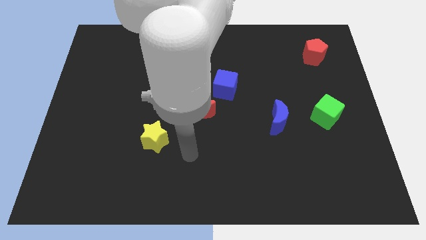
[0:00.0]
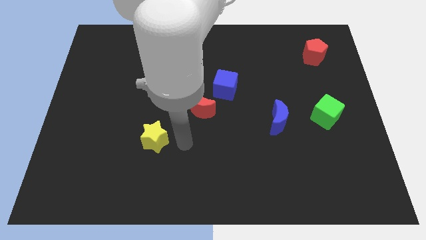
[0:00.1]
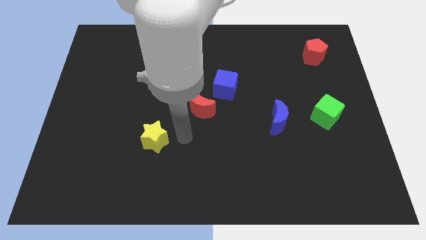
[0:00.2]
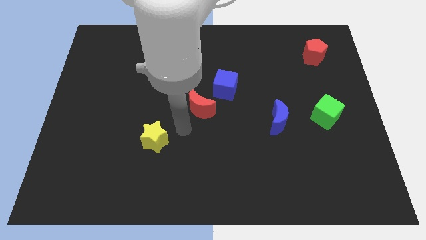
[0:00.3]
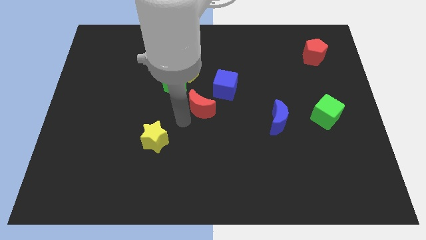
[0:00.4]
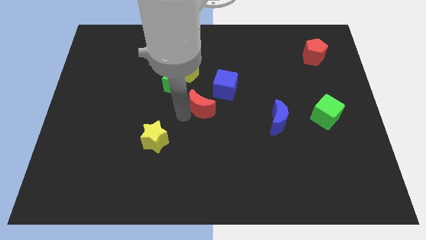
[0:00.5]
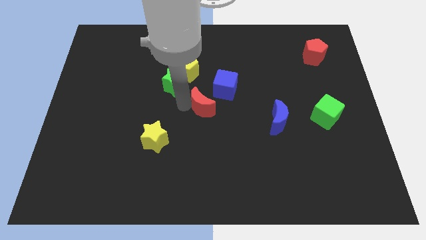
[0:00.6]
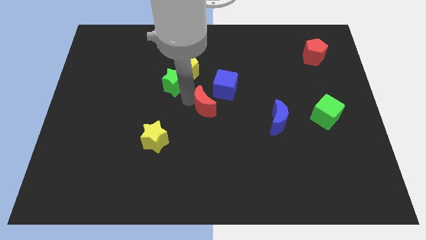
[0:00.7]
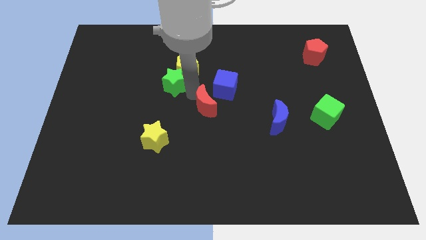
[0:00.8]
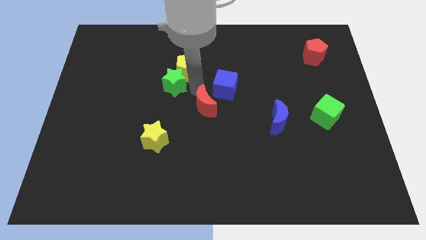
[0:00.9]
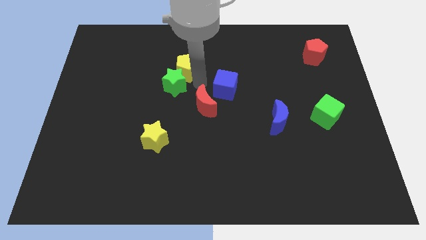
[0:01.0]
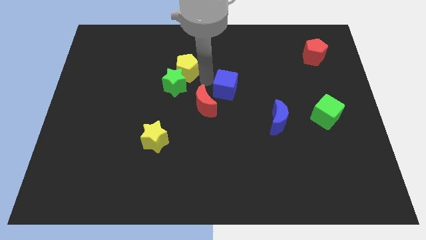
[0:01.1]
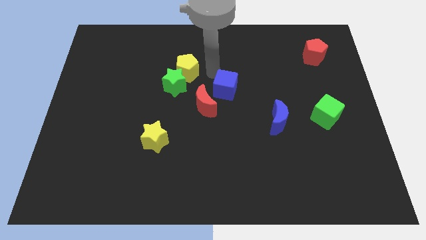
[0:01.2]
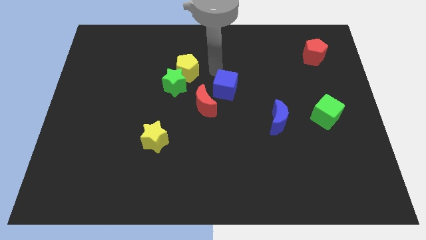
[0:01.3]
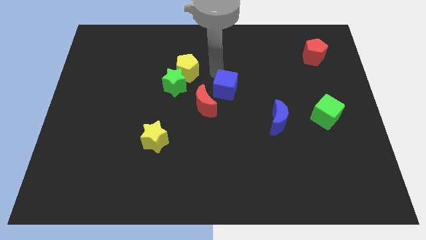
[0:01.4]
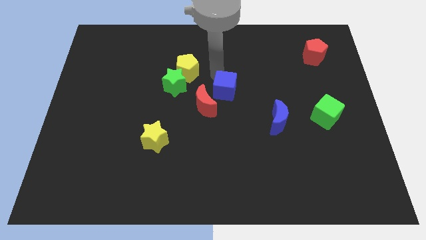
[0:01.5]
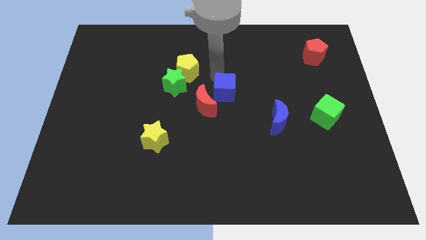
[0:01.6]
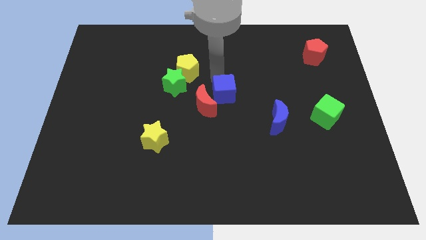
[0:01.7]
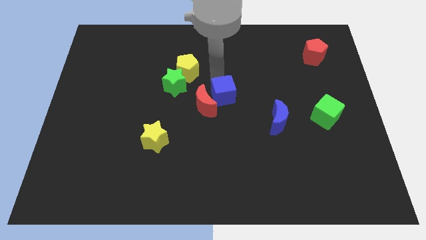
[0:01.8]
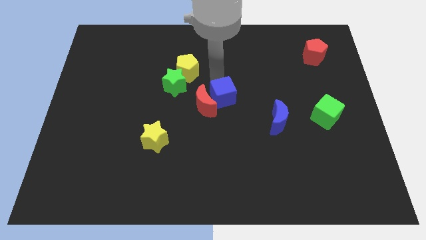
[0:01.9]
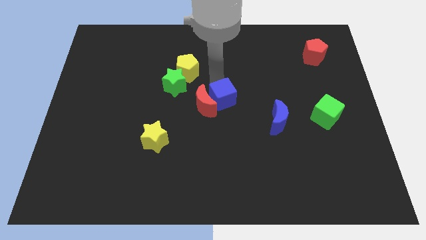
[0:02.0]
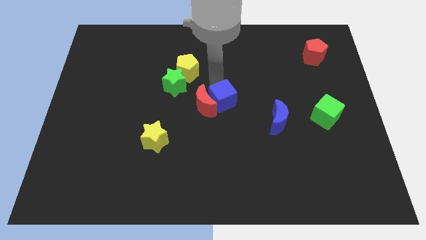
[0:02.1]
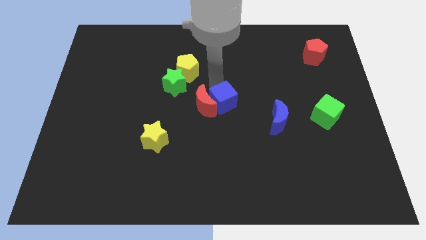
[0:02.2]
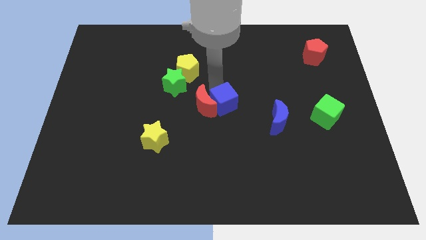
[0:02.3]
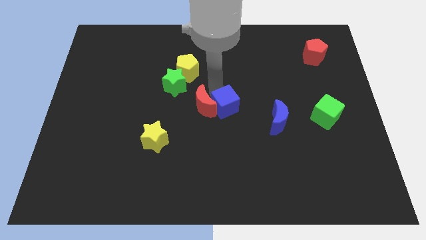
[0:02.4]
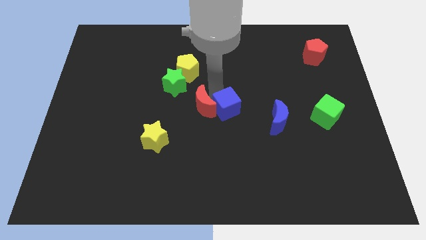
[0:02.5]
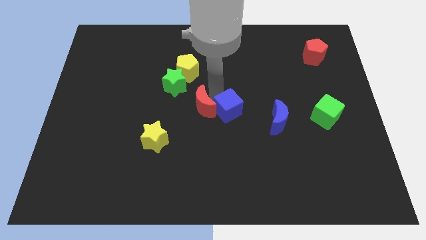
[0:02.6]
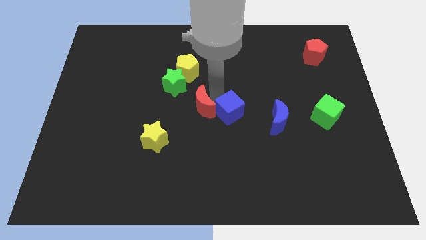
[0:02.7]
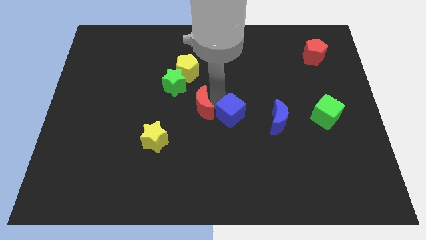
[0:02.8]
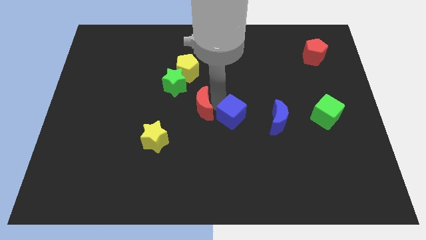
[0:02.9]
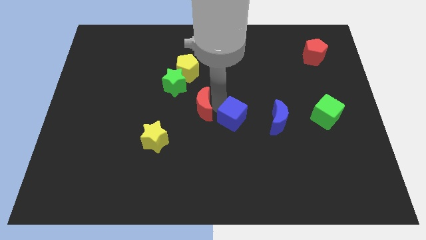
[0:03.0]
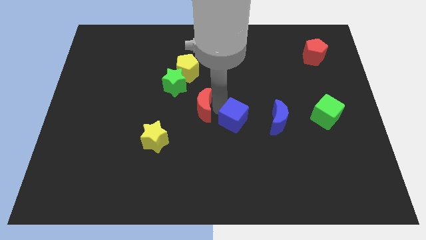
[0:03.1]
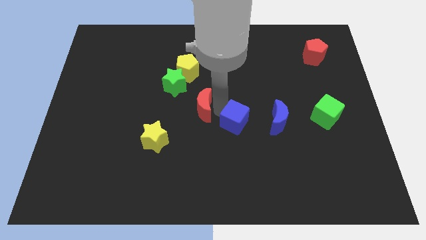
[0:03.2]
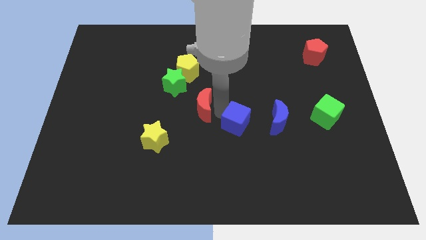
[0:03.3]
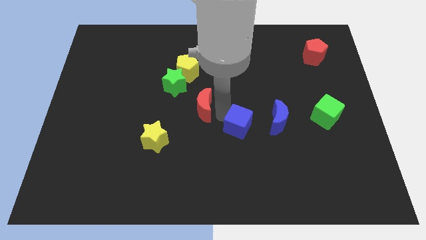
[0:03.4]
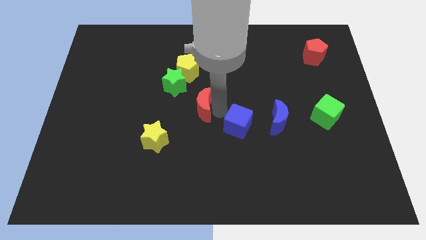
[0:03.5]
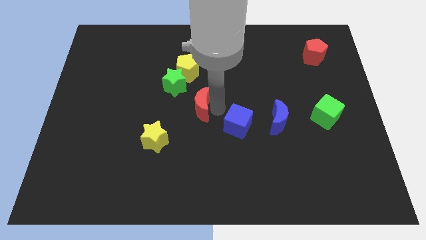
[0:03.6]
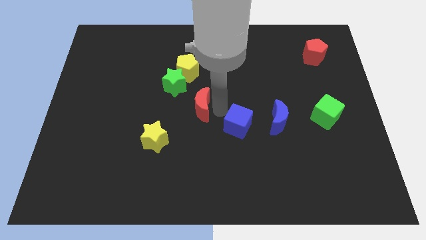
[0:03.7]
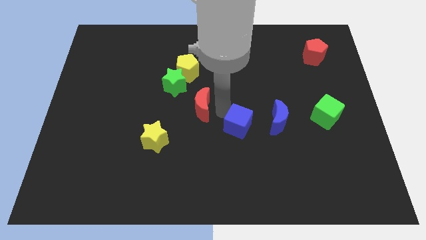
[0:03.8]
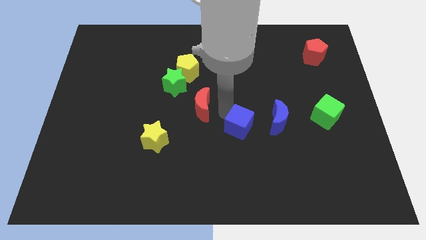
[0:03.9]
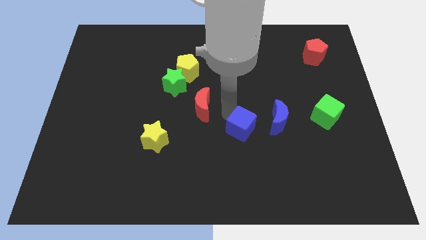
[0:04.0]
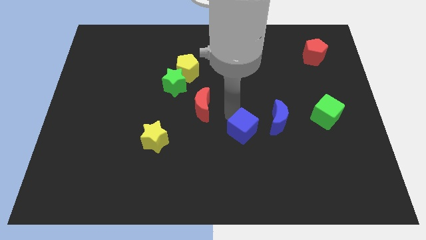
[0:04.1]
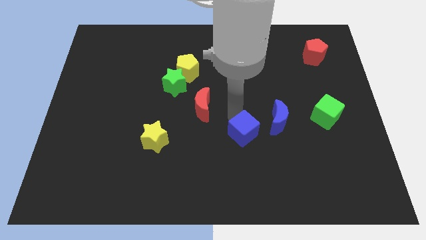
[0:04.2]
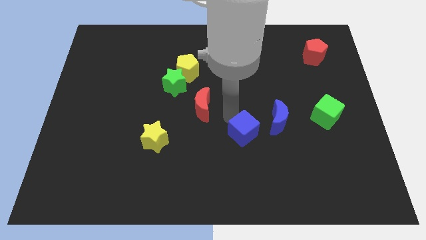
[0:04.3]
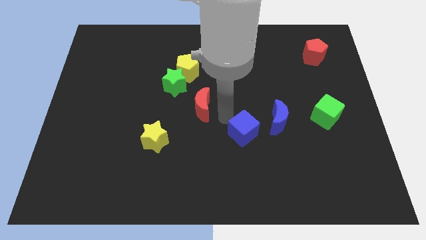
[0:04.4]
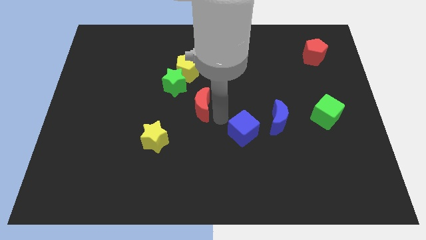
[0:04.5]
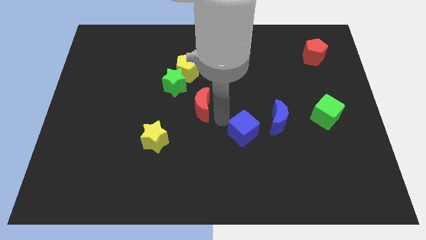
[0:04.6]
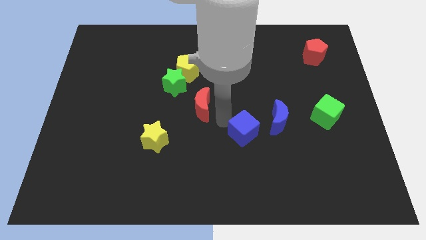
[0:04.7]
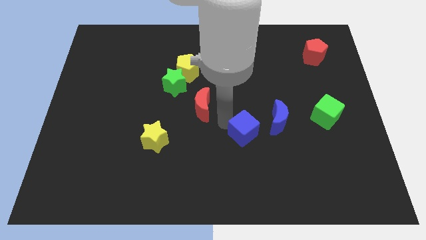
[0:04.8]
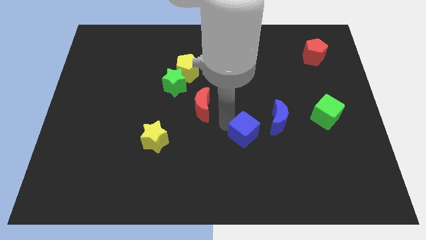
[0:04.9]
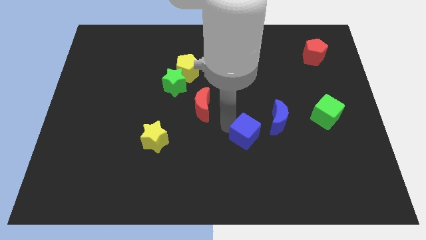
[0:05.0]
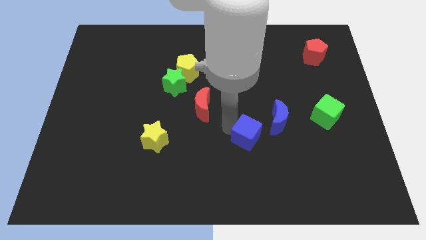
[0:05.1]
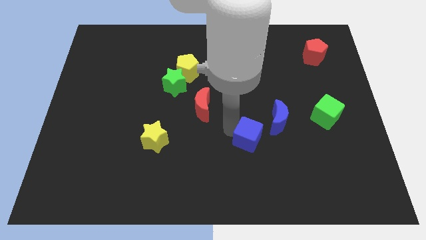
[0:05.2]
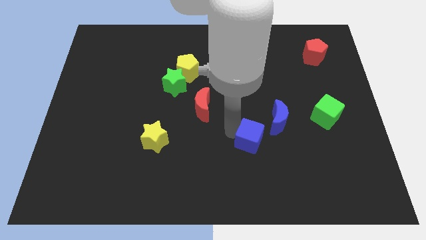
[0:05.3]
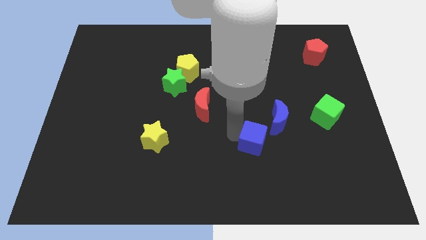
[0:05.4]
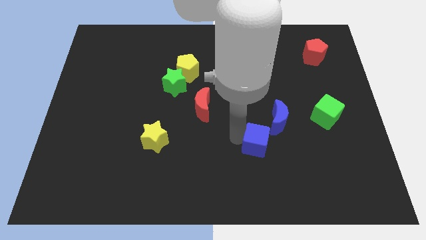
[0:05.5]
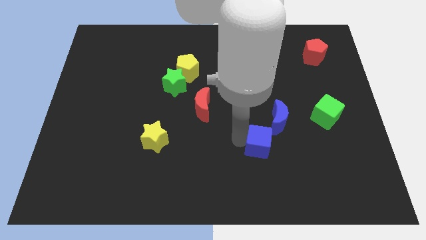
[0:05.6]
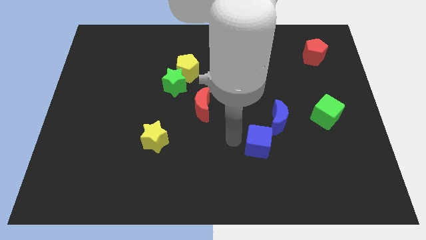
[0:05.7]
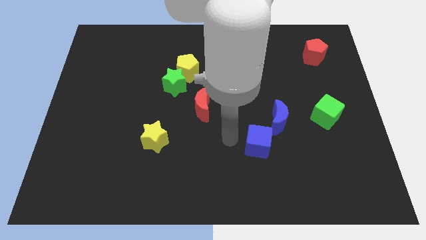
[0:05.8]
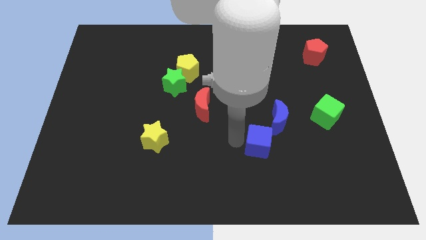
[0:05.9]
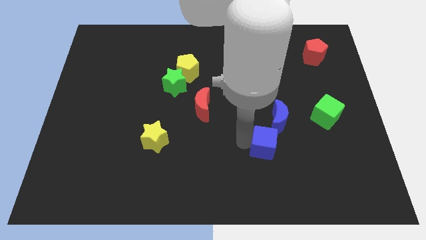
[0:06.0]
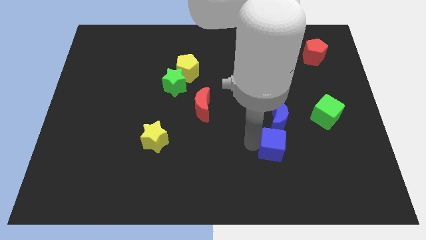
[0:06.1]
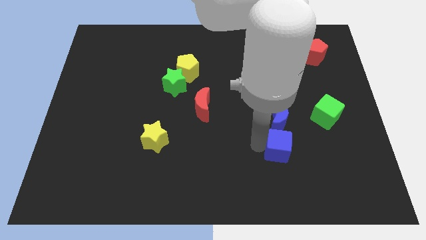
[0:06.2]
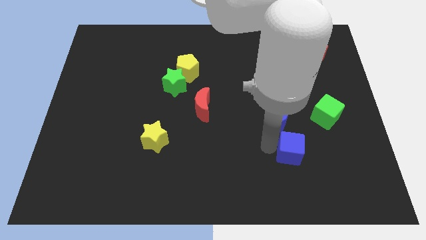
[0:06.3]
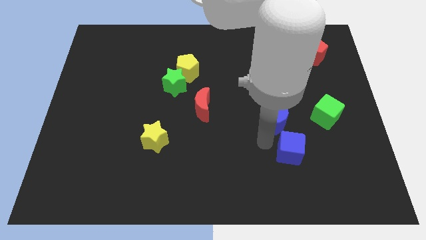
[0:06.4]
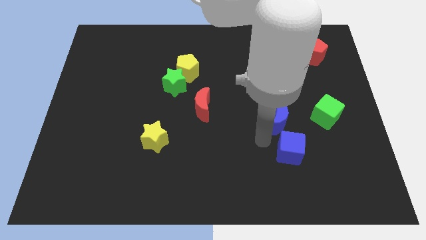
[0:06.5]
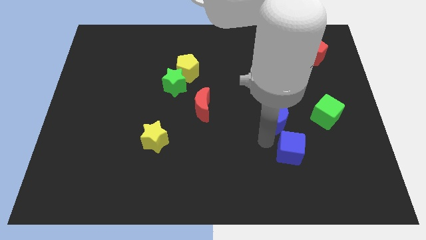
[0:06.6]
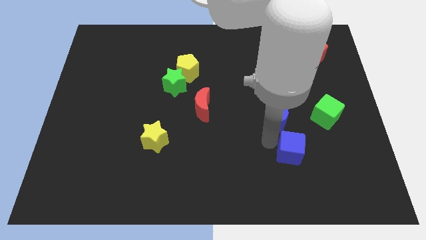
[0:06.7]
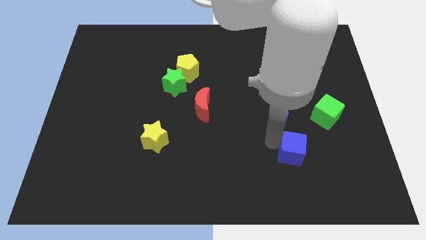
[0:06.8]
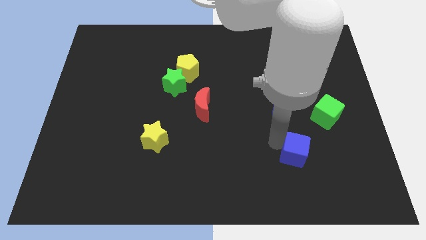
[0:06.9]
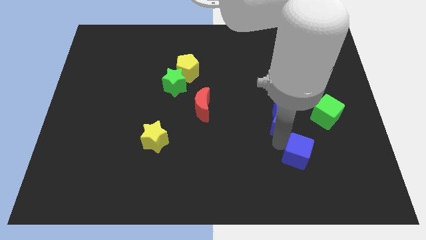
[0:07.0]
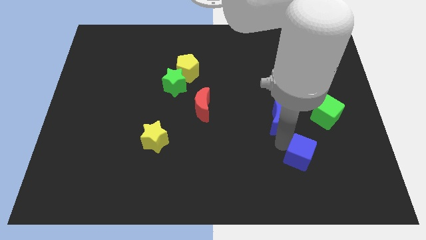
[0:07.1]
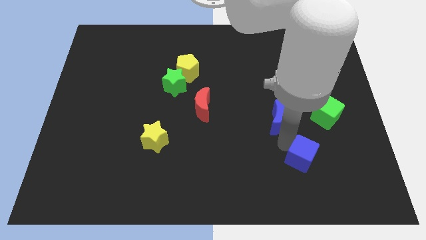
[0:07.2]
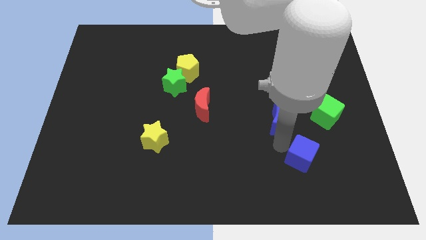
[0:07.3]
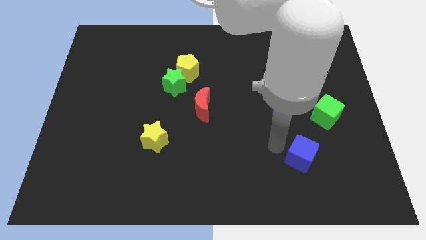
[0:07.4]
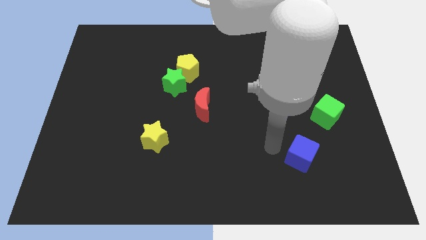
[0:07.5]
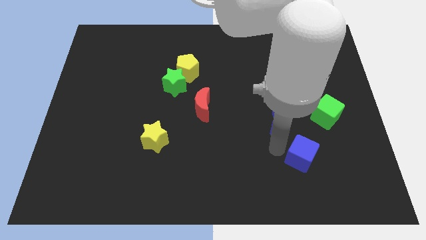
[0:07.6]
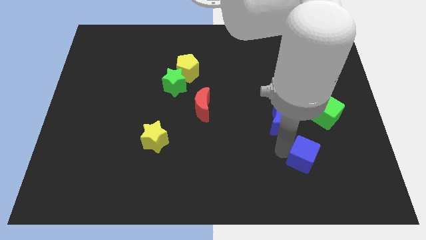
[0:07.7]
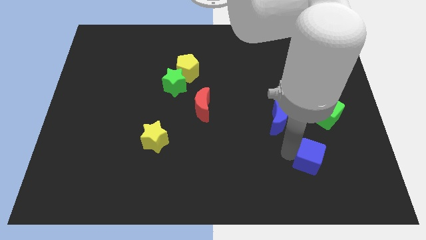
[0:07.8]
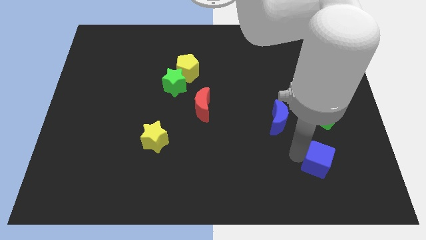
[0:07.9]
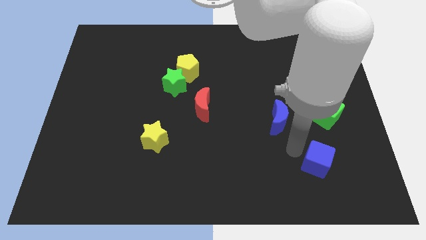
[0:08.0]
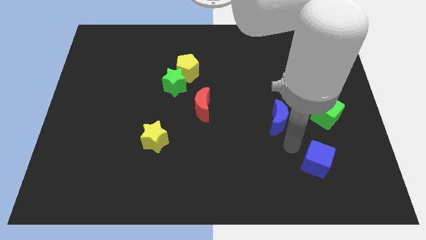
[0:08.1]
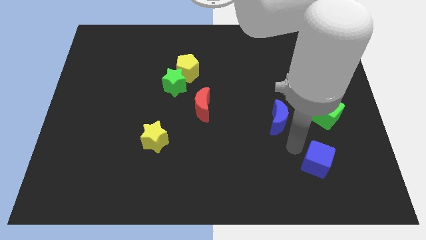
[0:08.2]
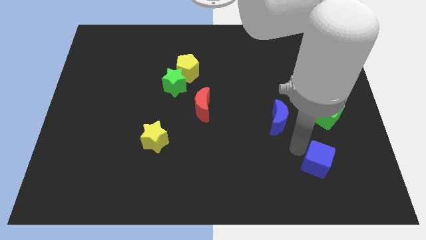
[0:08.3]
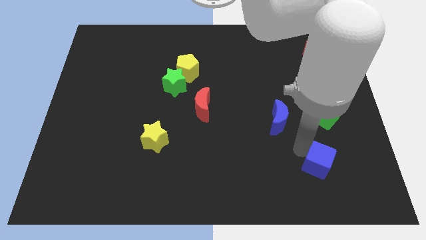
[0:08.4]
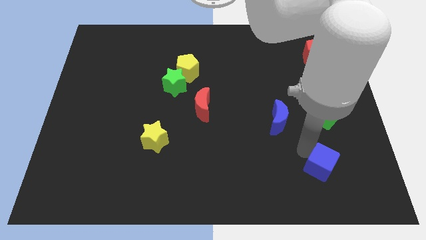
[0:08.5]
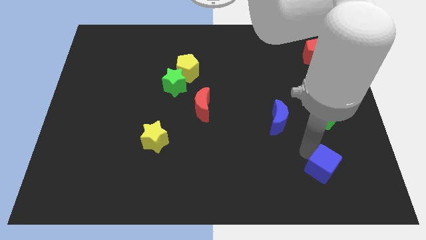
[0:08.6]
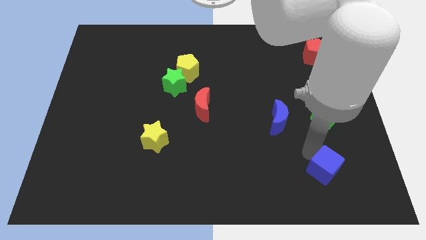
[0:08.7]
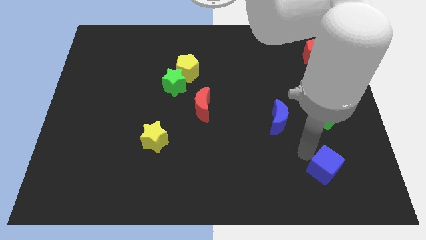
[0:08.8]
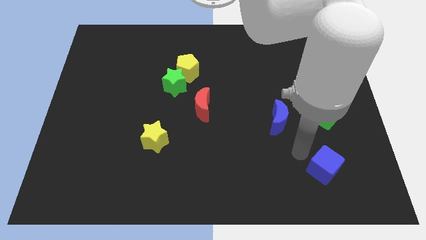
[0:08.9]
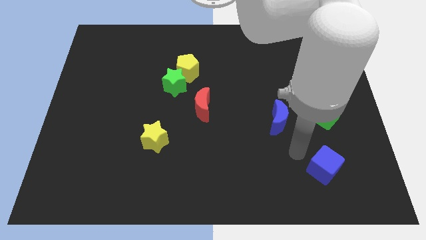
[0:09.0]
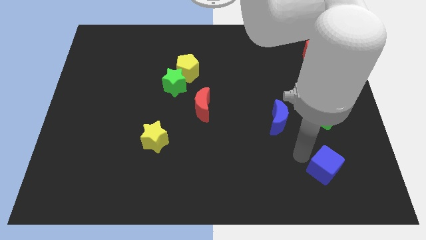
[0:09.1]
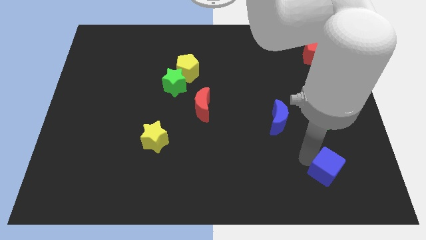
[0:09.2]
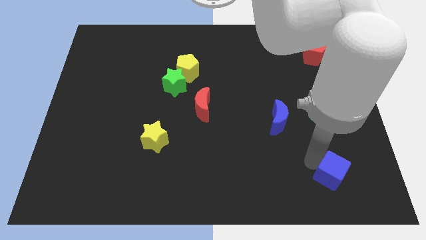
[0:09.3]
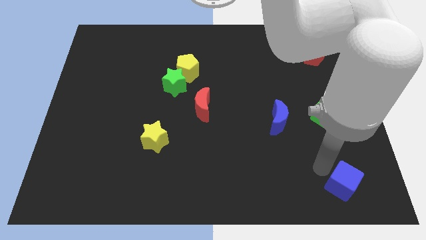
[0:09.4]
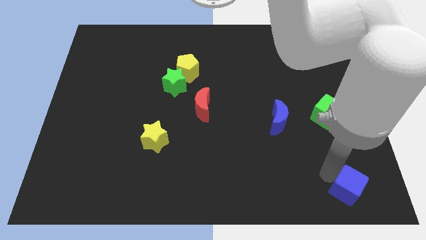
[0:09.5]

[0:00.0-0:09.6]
push the blue cube to the bottom right
